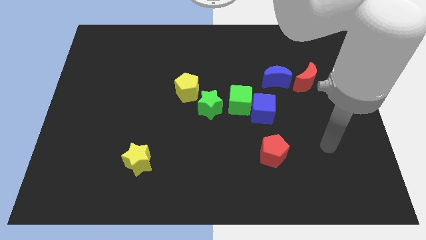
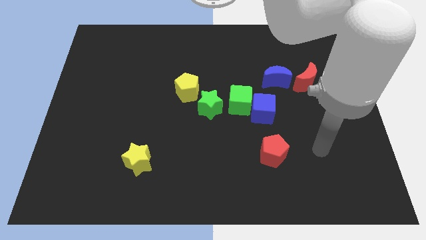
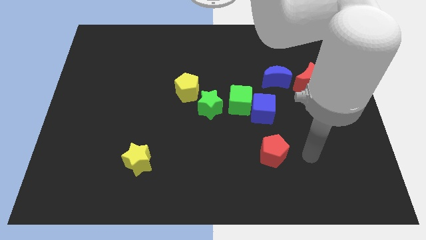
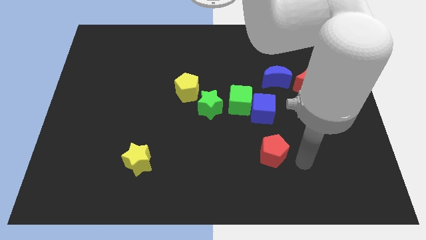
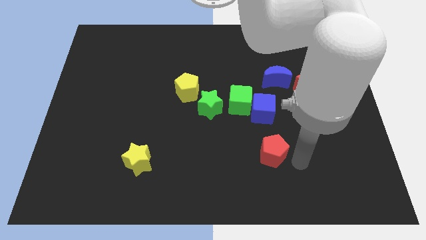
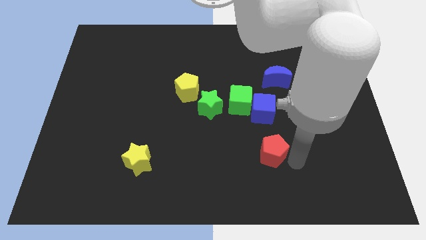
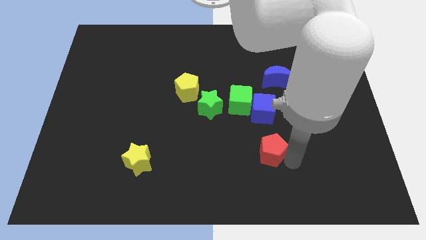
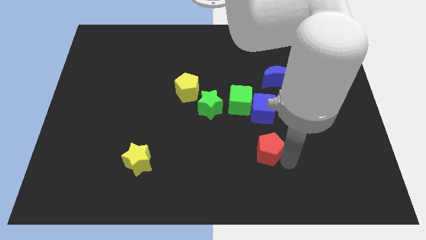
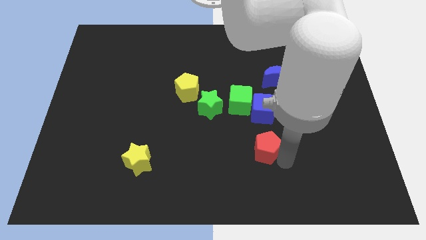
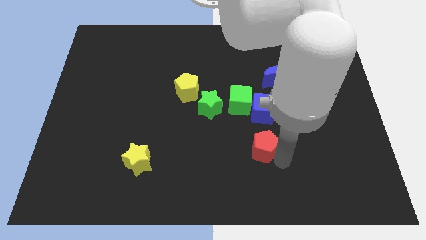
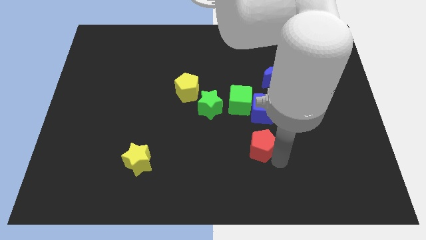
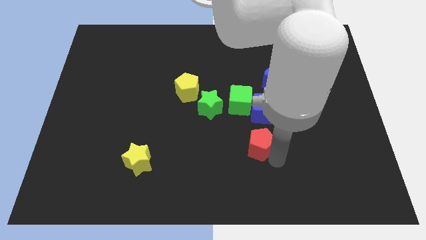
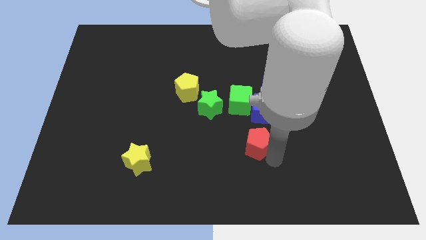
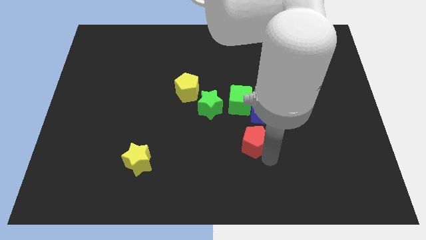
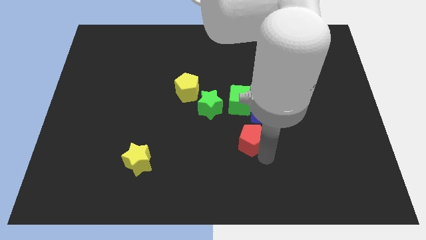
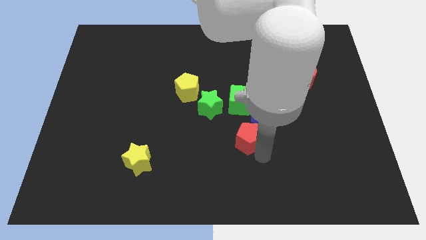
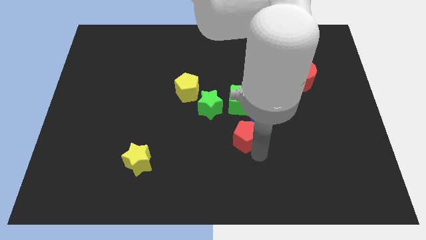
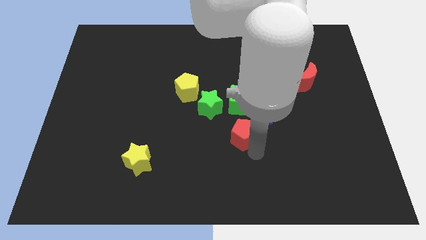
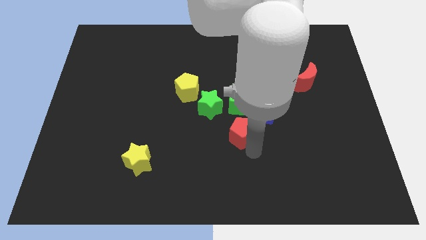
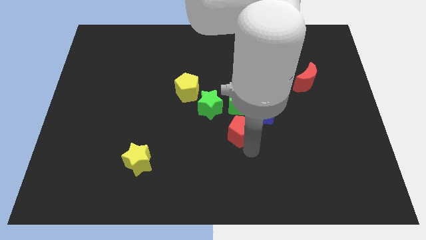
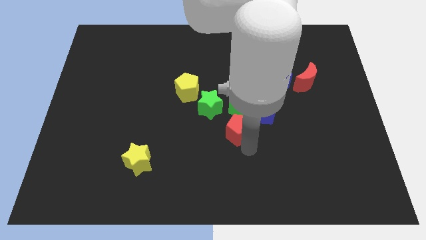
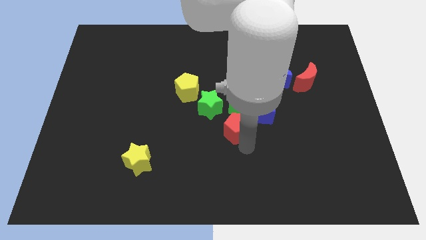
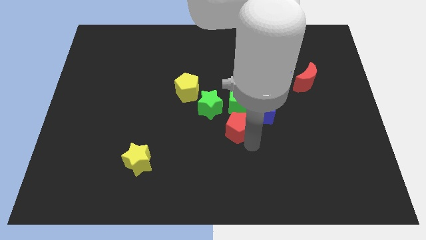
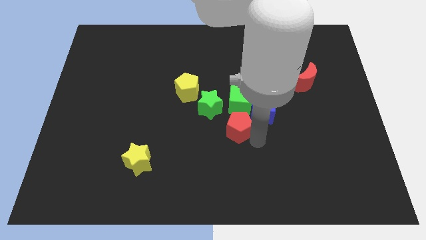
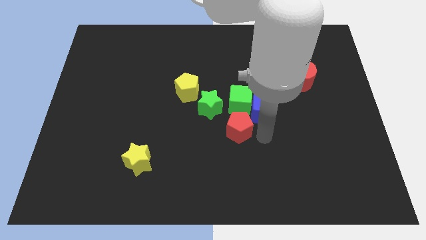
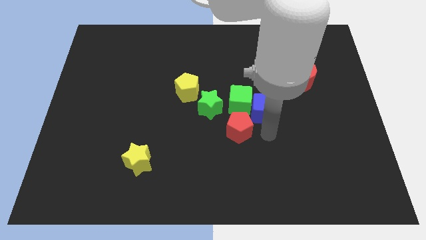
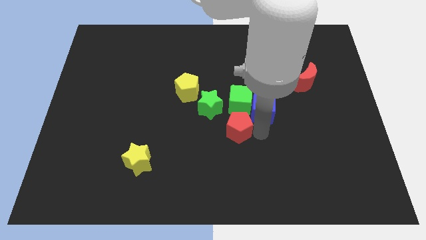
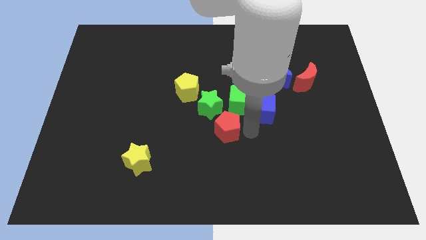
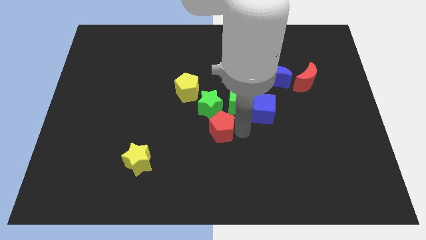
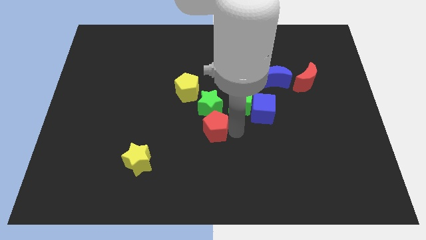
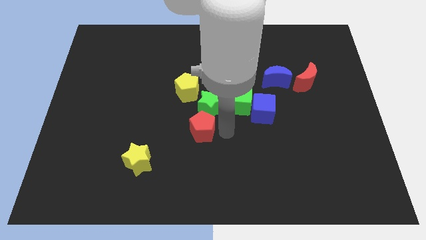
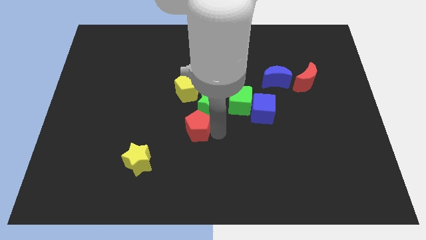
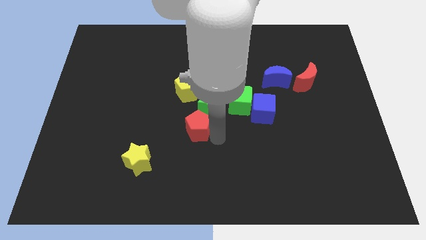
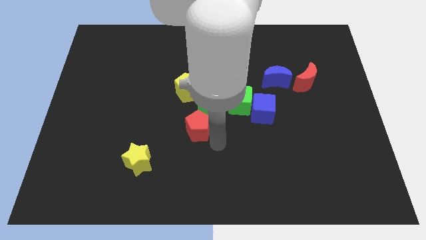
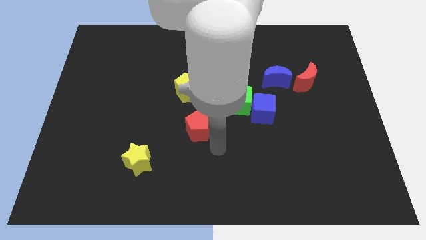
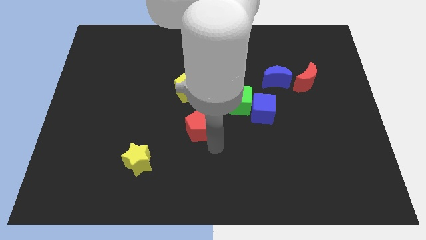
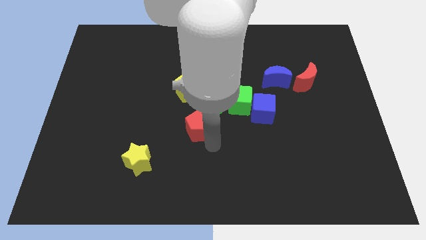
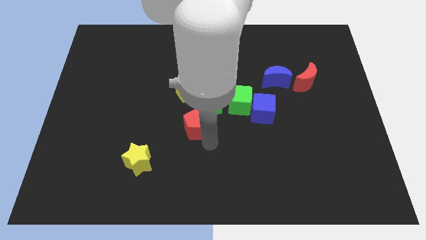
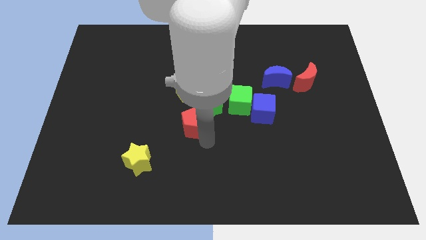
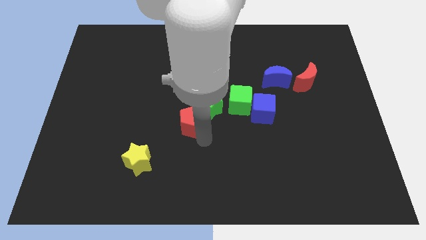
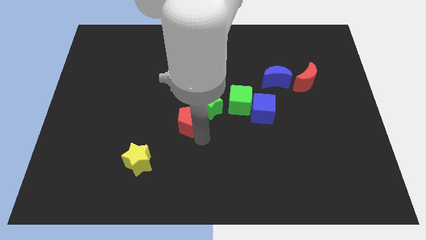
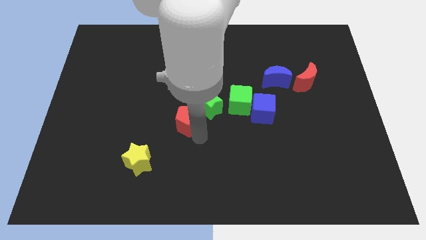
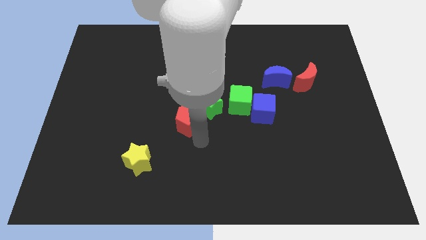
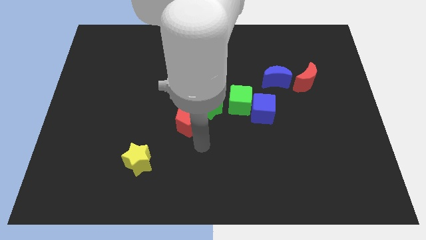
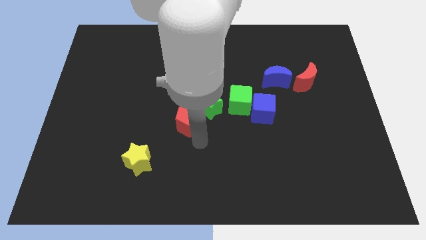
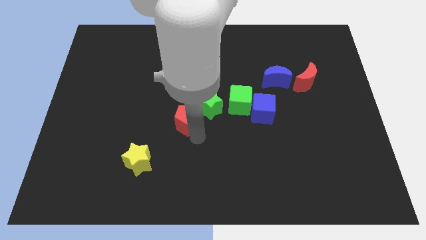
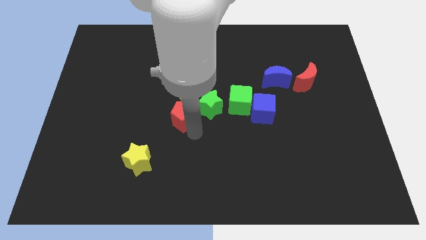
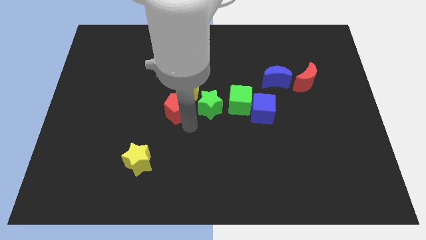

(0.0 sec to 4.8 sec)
move the red pentagon diagonally upwards and to the left

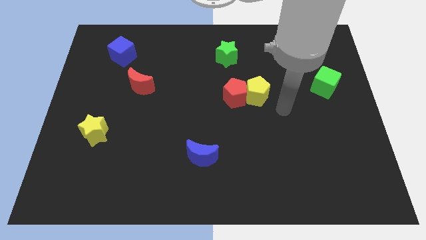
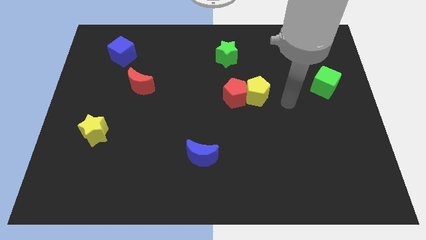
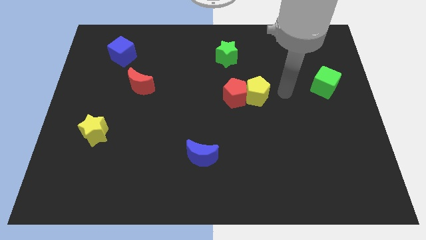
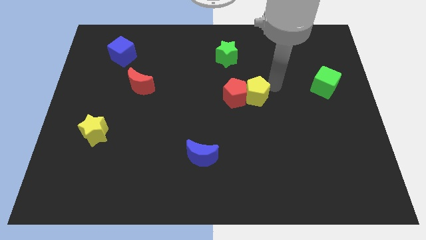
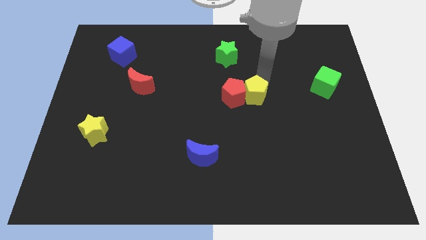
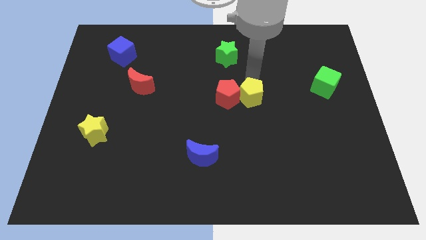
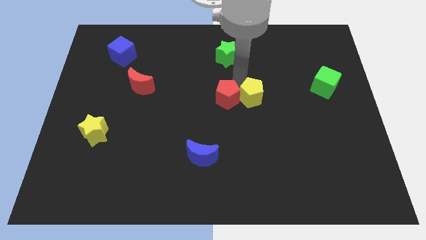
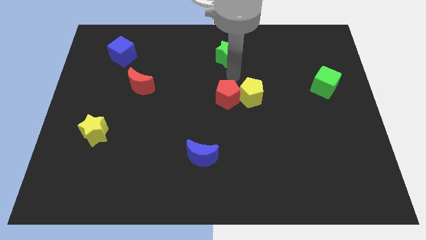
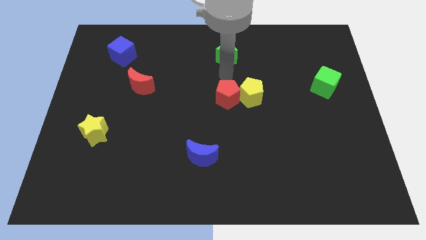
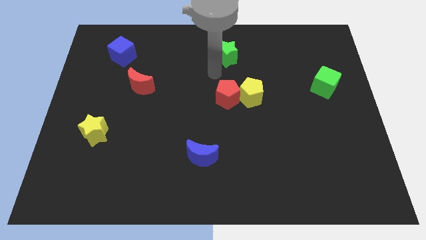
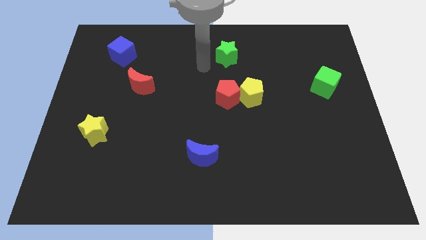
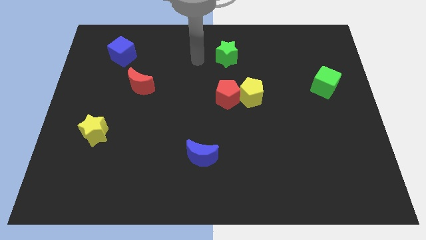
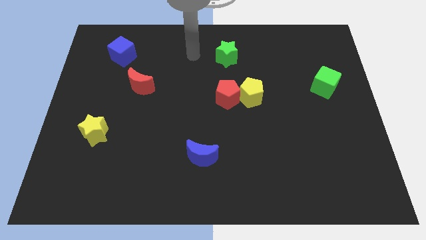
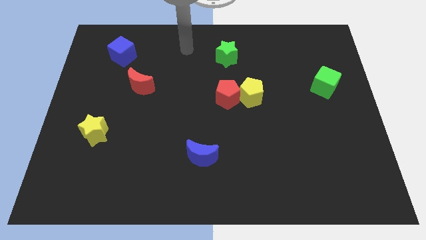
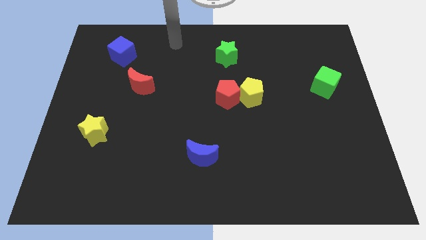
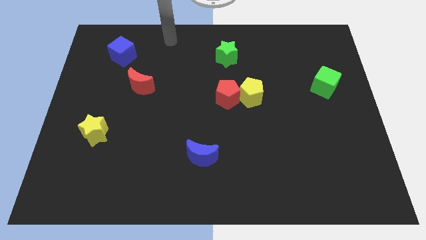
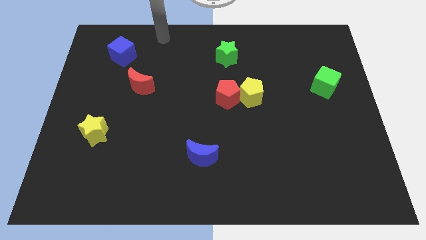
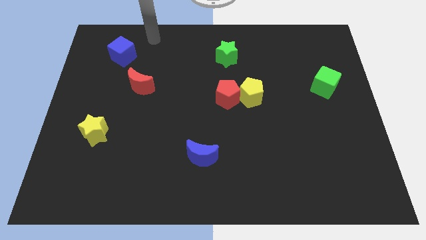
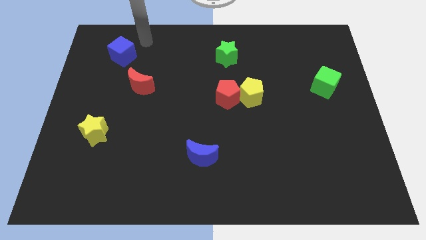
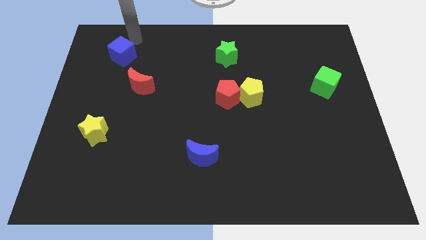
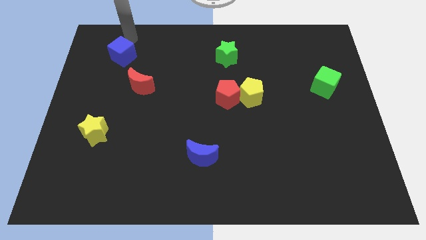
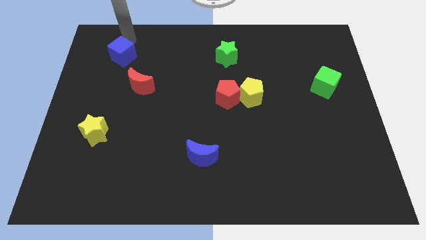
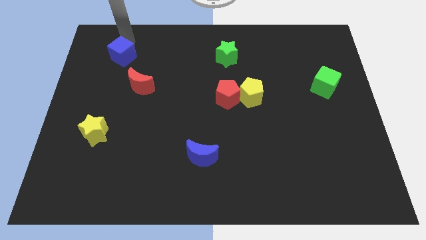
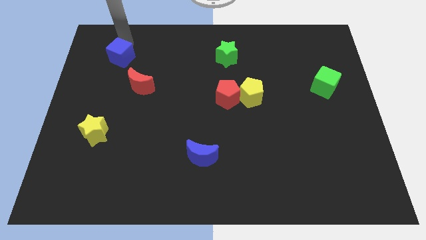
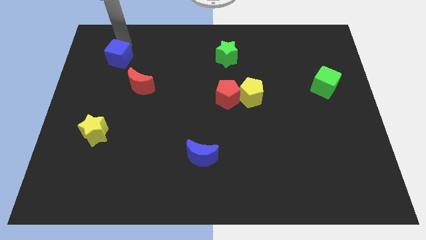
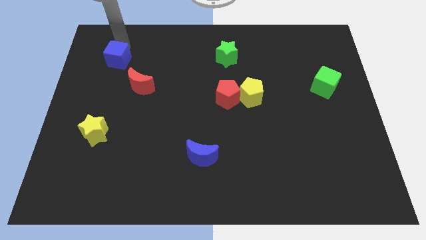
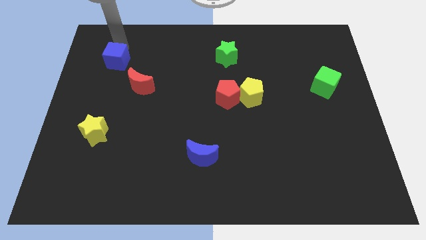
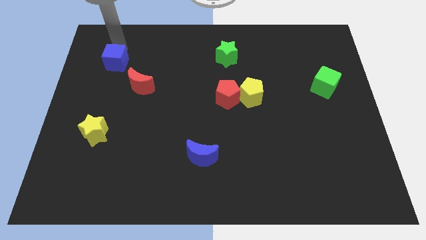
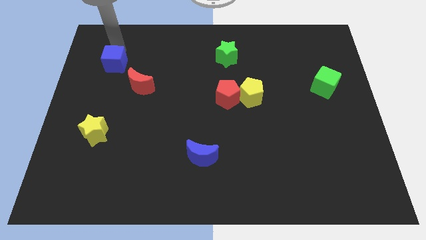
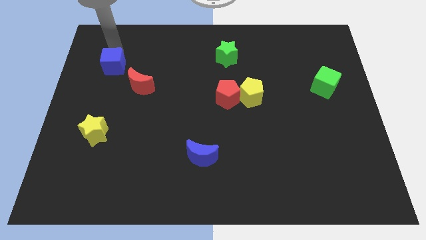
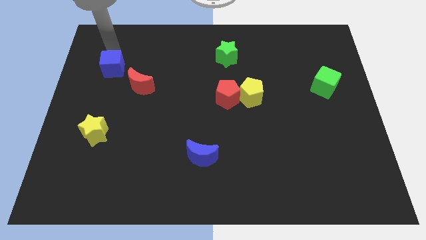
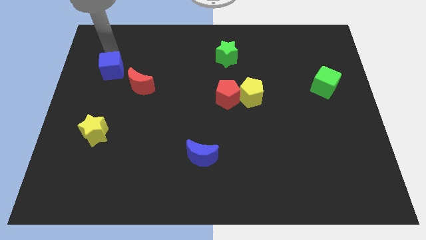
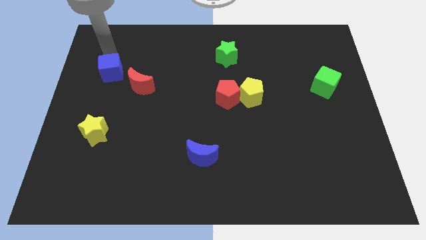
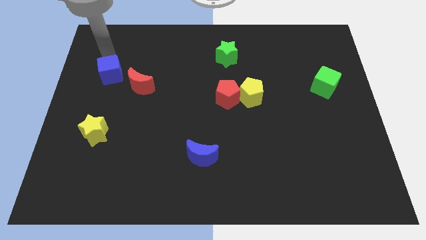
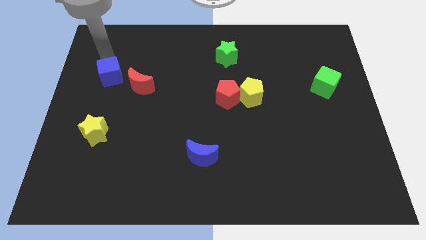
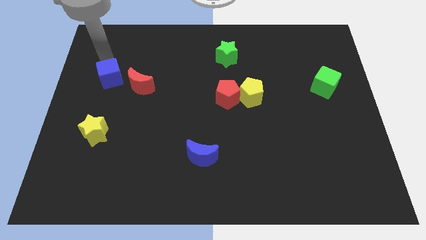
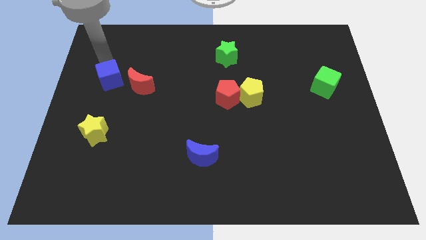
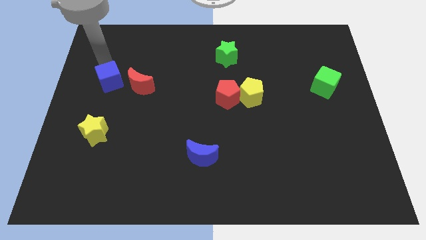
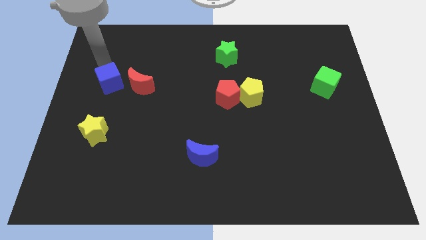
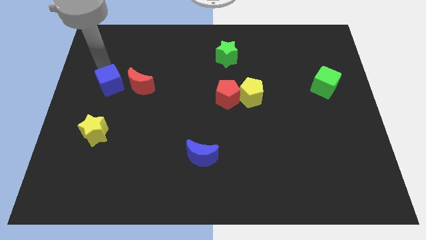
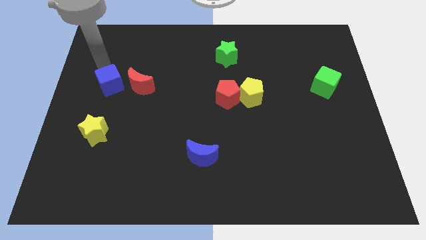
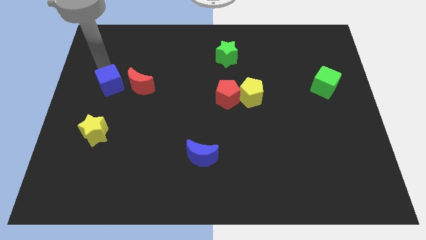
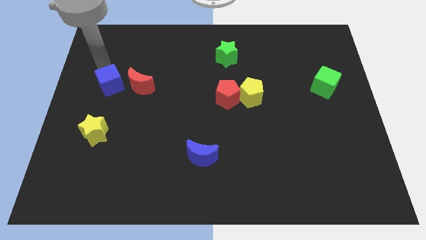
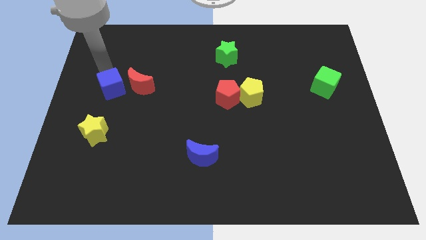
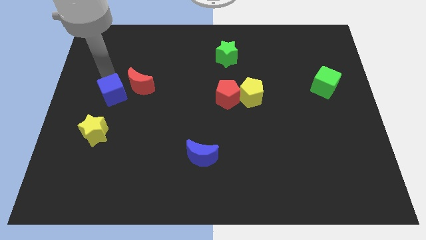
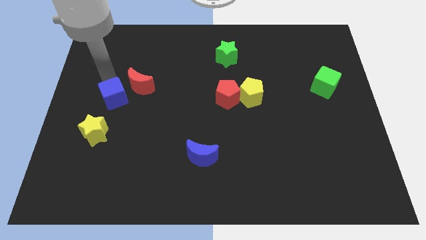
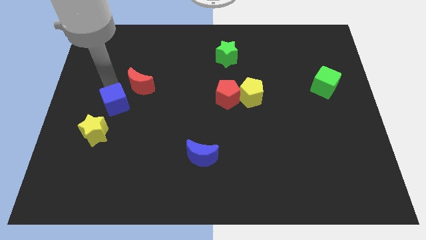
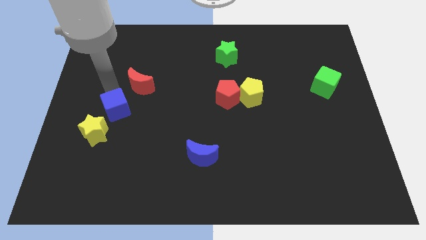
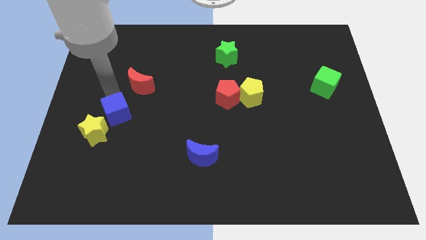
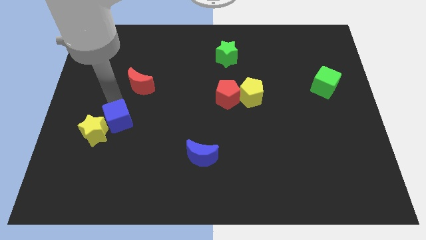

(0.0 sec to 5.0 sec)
move the blue cube downwards
